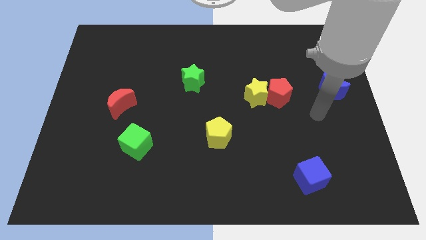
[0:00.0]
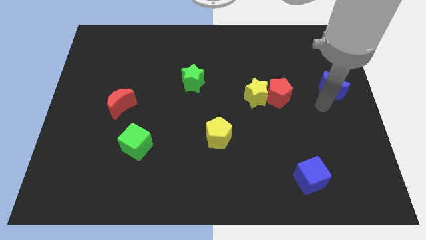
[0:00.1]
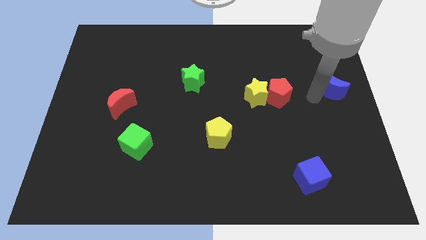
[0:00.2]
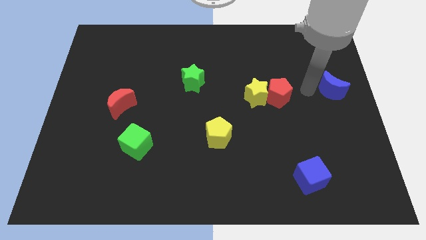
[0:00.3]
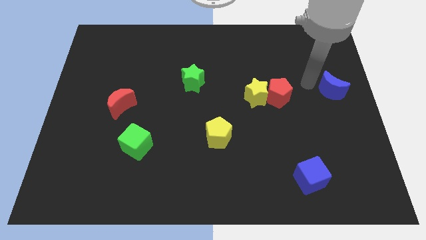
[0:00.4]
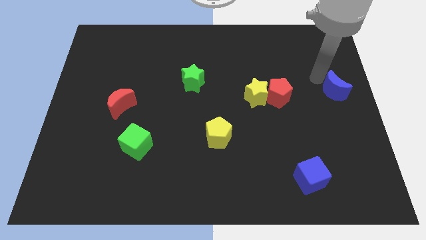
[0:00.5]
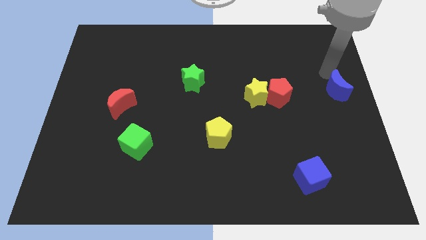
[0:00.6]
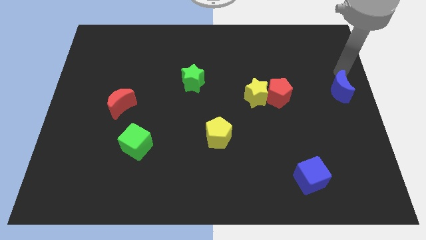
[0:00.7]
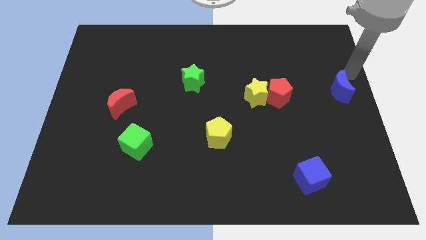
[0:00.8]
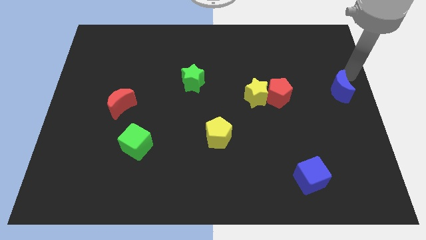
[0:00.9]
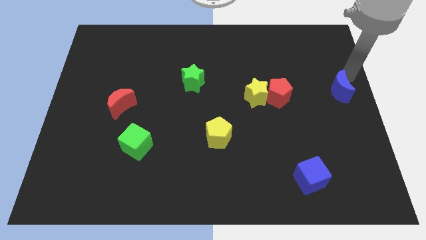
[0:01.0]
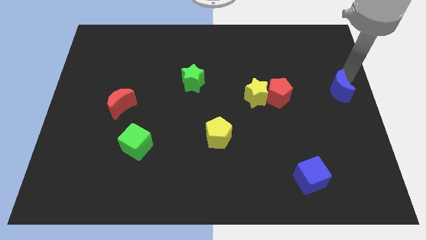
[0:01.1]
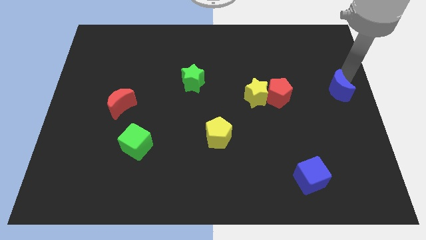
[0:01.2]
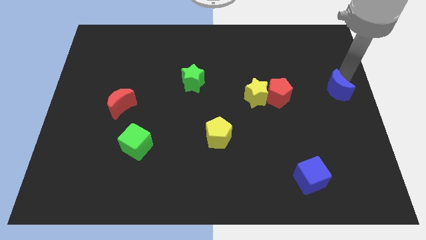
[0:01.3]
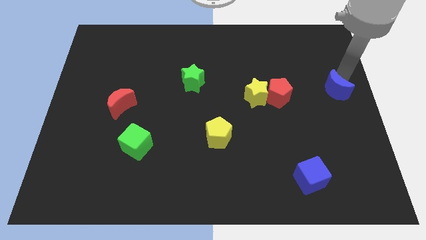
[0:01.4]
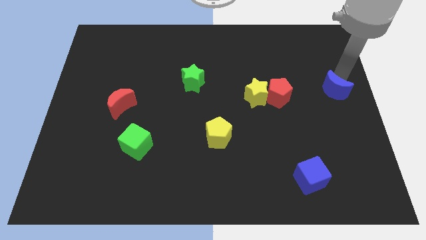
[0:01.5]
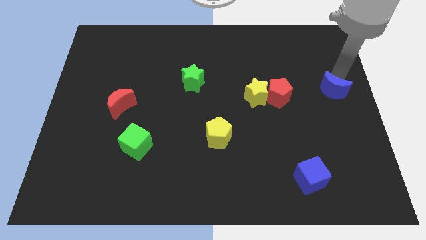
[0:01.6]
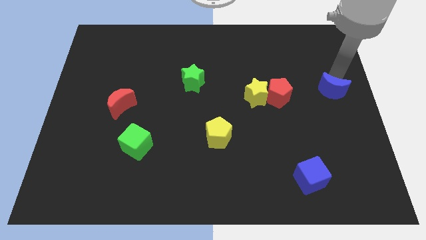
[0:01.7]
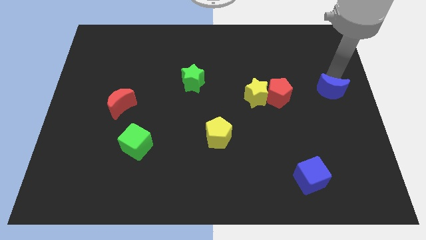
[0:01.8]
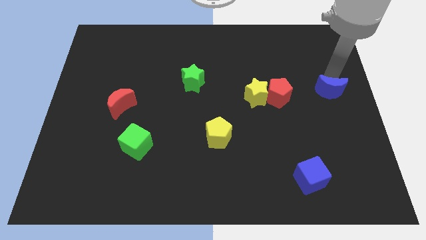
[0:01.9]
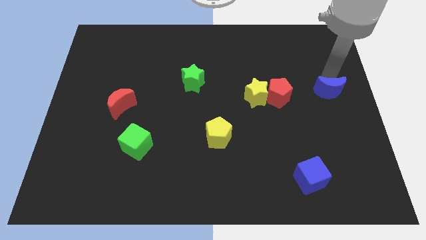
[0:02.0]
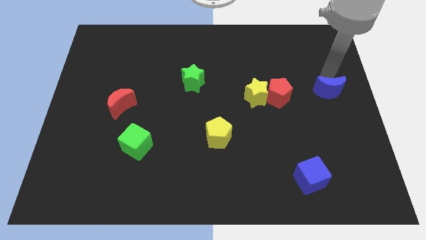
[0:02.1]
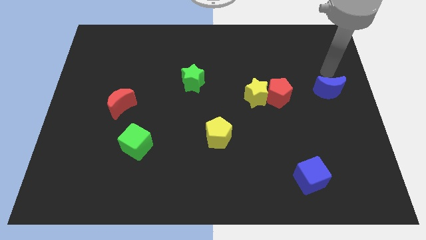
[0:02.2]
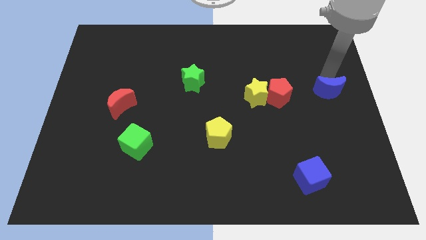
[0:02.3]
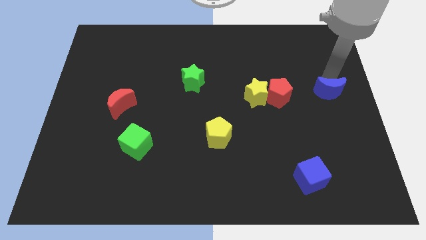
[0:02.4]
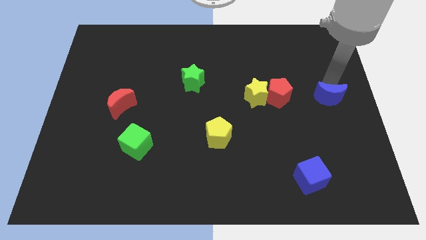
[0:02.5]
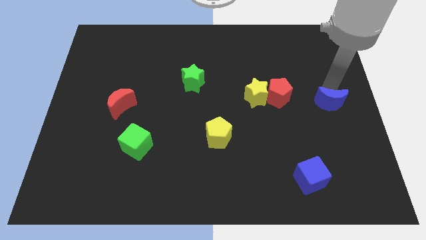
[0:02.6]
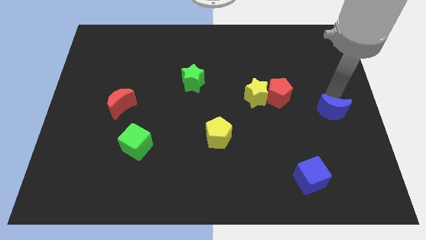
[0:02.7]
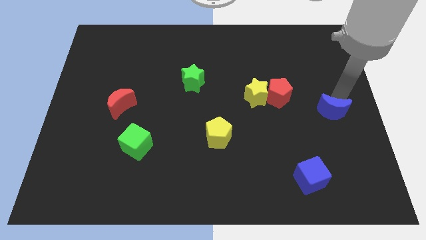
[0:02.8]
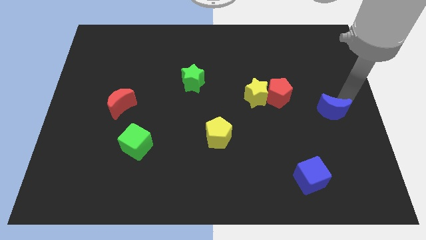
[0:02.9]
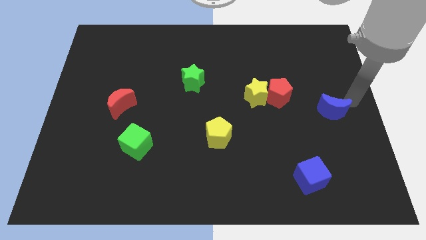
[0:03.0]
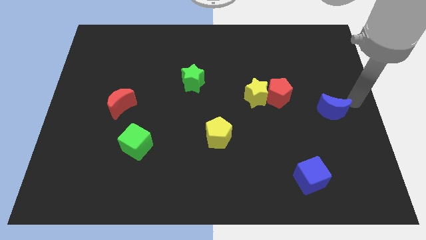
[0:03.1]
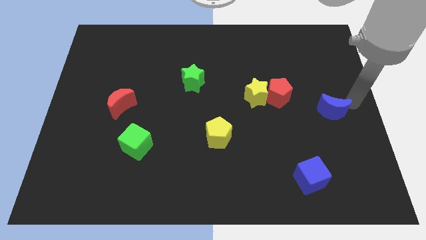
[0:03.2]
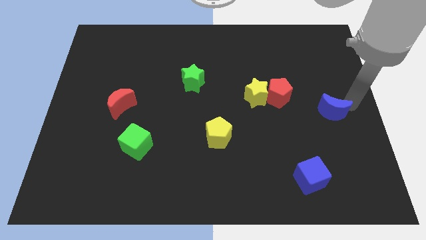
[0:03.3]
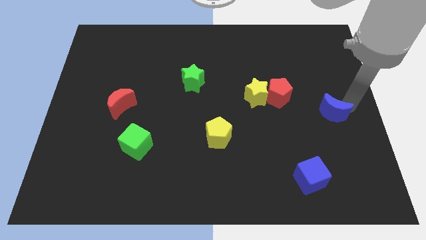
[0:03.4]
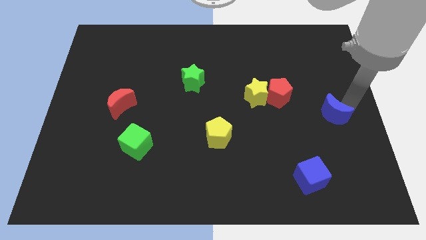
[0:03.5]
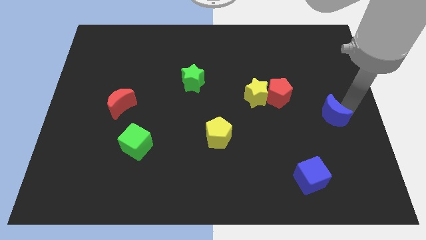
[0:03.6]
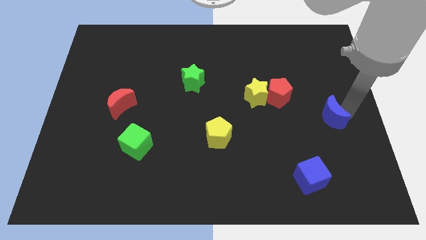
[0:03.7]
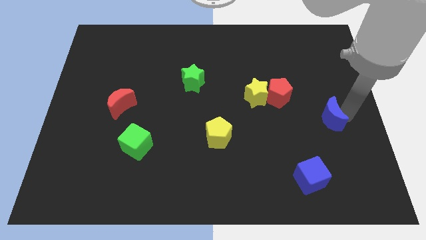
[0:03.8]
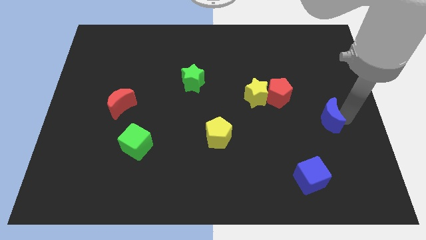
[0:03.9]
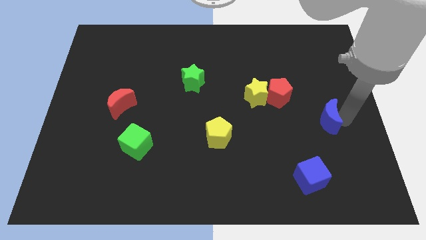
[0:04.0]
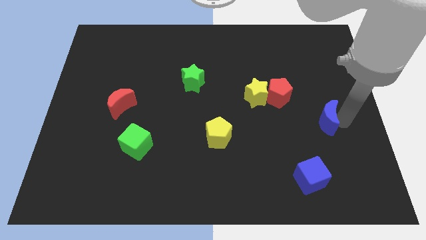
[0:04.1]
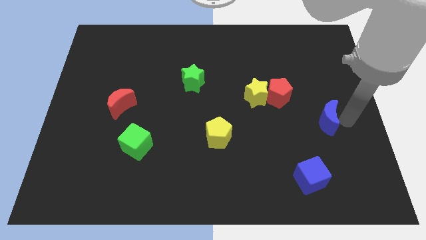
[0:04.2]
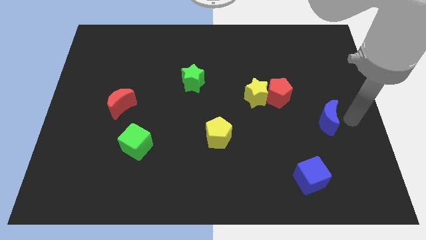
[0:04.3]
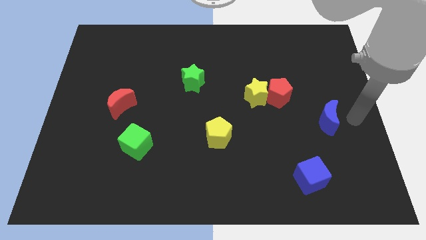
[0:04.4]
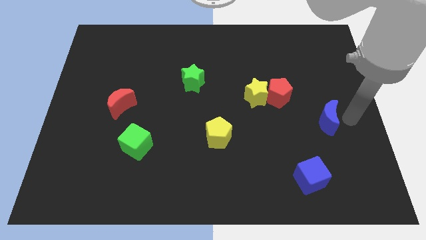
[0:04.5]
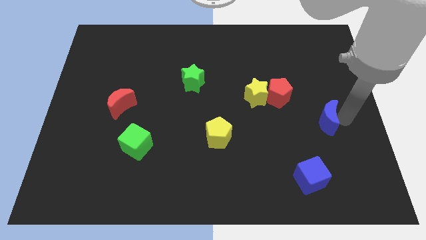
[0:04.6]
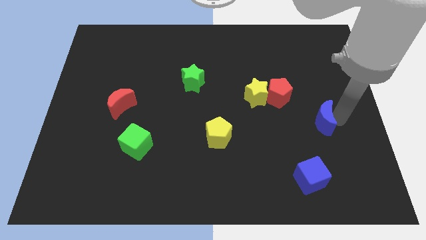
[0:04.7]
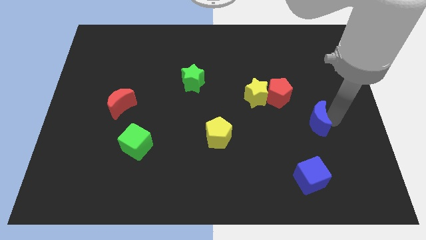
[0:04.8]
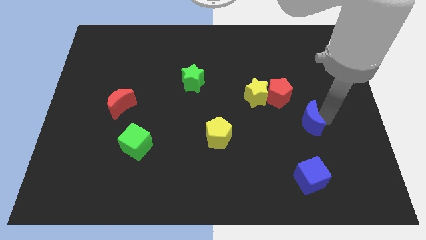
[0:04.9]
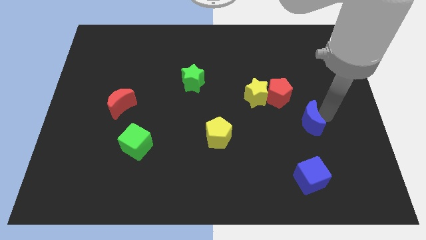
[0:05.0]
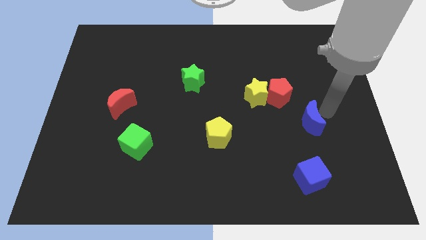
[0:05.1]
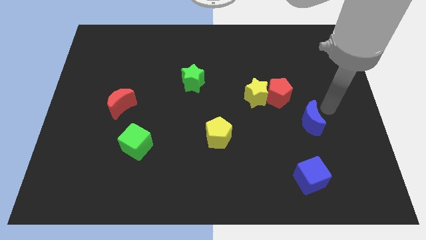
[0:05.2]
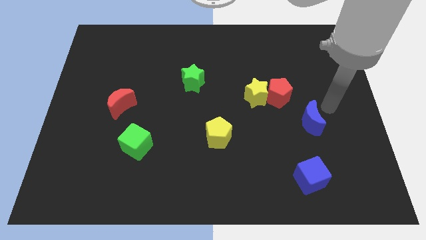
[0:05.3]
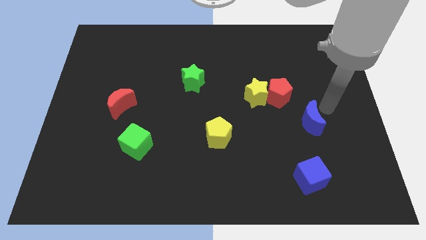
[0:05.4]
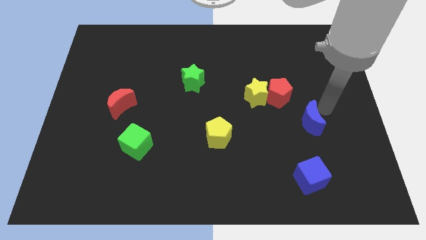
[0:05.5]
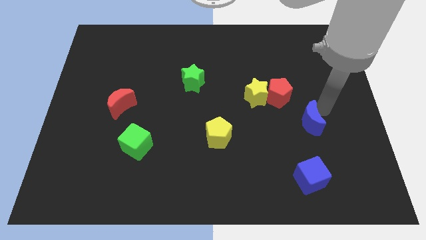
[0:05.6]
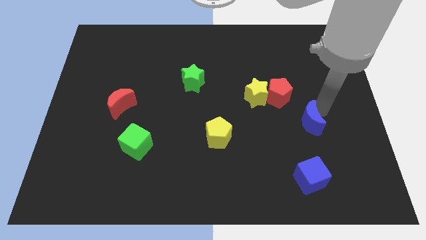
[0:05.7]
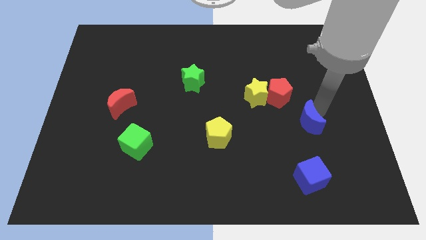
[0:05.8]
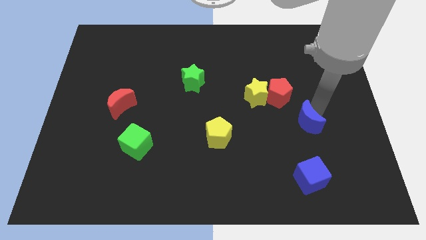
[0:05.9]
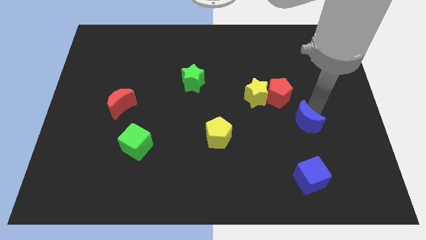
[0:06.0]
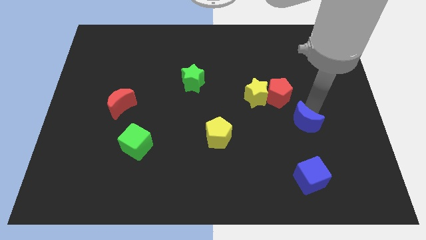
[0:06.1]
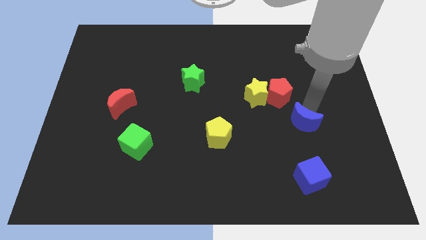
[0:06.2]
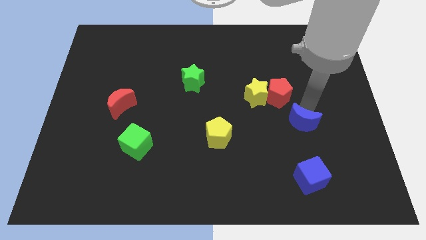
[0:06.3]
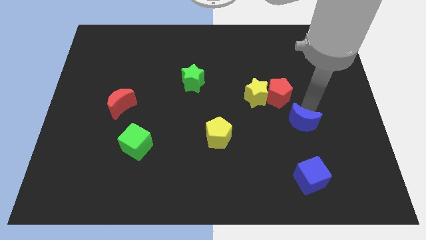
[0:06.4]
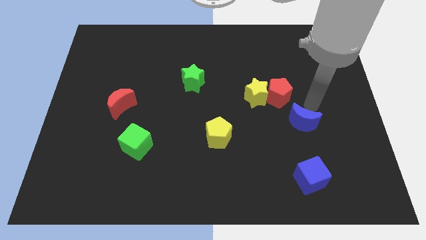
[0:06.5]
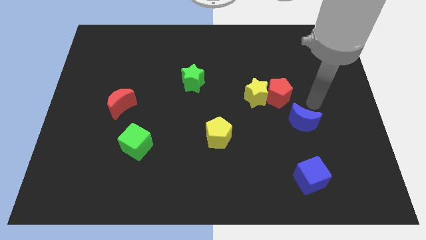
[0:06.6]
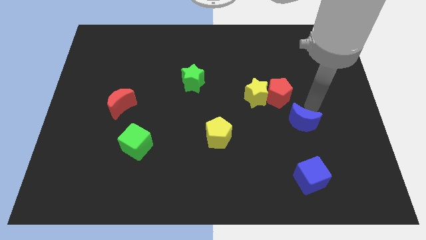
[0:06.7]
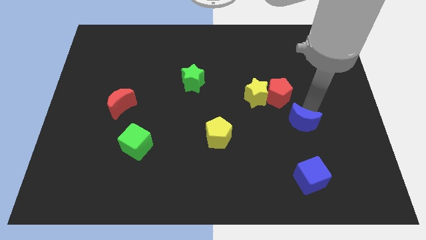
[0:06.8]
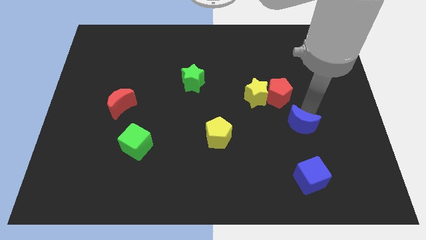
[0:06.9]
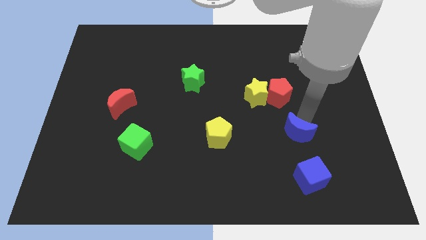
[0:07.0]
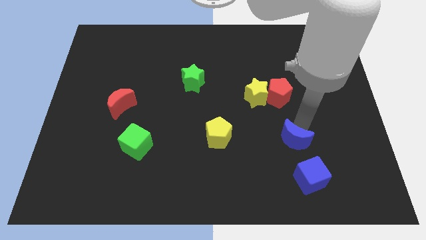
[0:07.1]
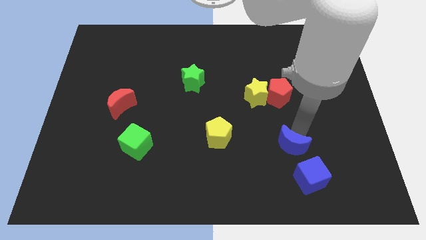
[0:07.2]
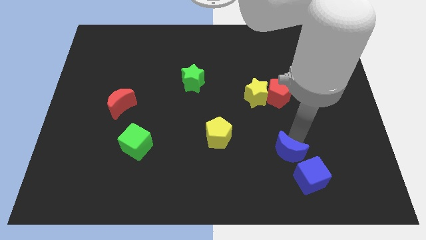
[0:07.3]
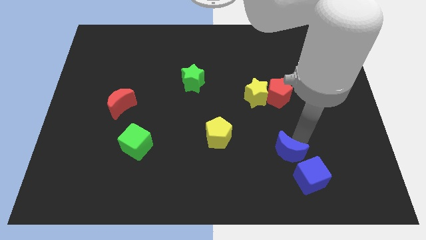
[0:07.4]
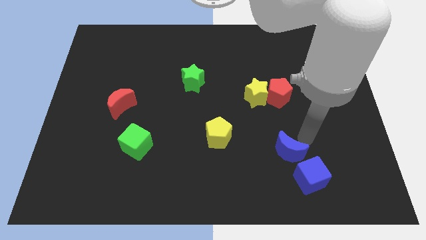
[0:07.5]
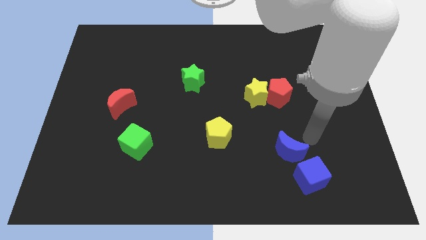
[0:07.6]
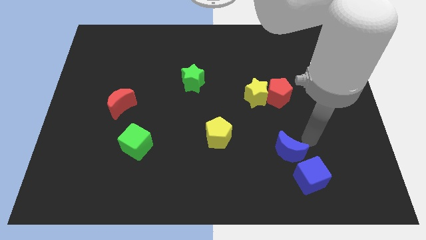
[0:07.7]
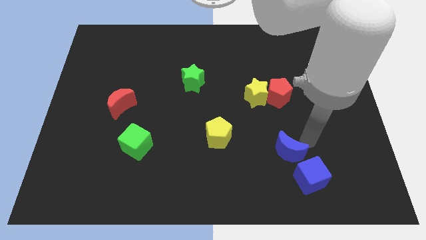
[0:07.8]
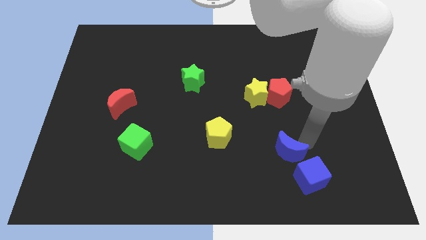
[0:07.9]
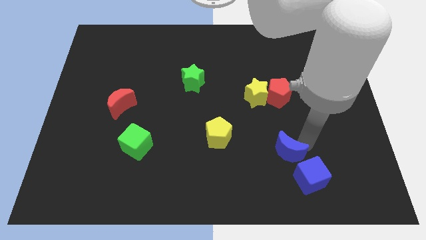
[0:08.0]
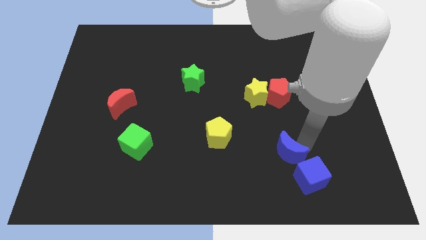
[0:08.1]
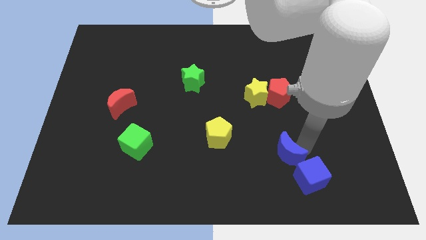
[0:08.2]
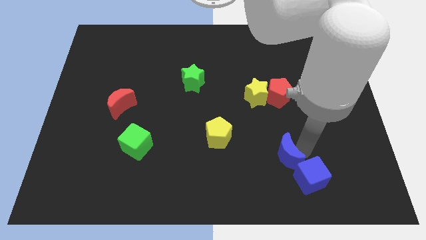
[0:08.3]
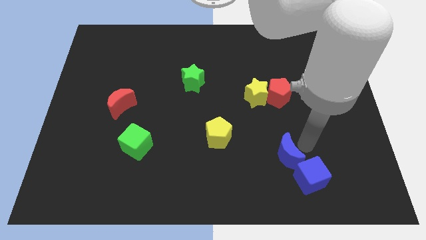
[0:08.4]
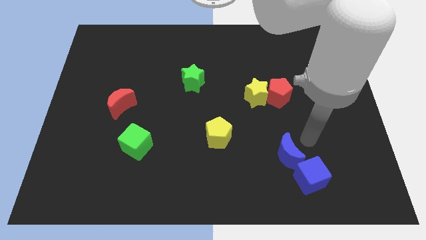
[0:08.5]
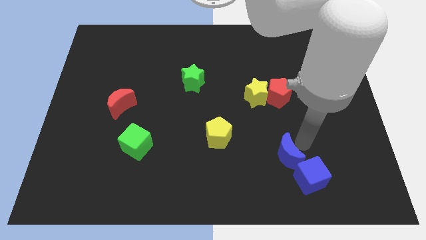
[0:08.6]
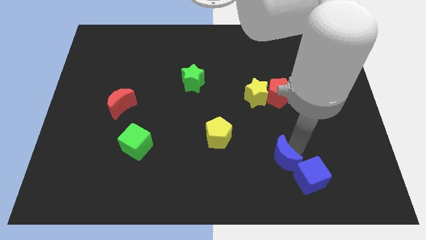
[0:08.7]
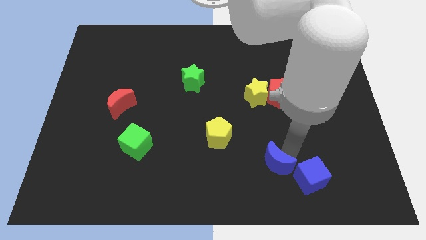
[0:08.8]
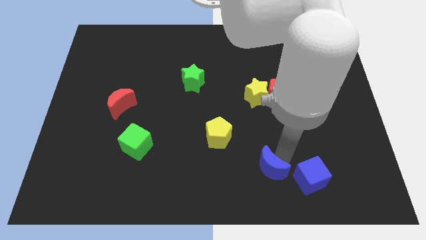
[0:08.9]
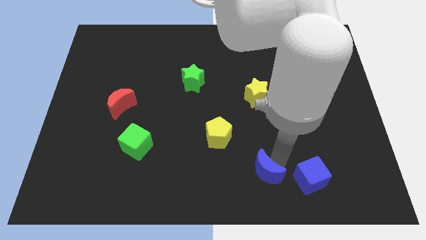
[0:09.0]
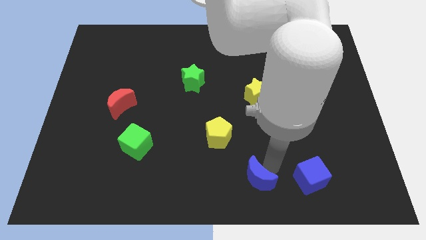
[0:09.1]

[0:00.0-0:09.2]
push the blue moon to the bottom
